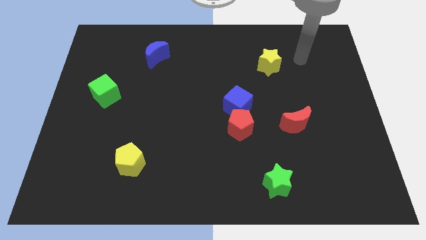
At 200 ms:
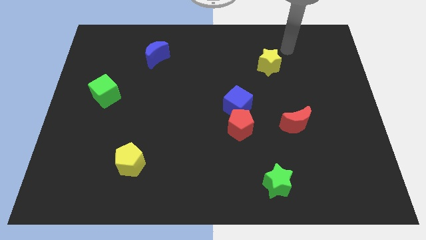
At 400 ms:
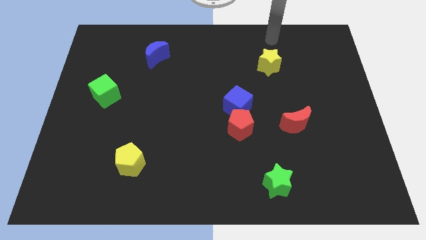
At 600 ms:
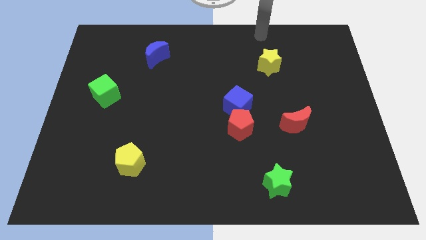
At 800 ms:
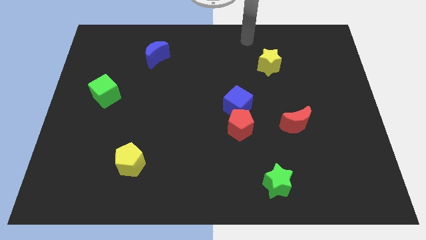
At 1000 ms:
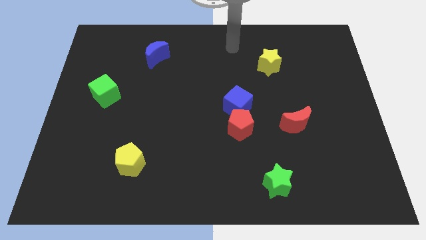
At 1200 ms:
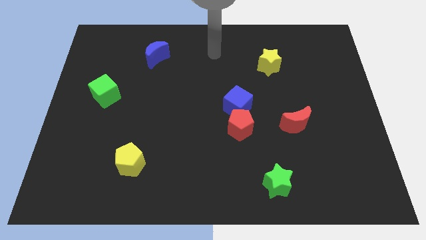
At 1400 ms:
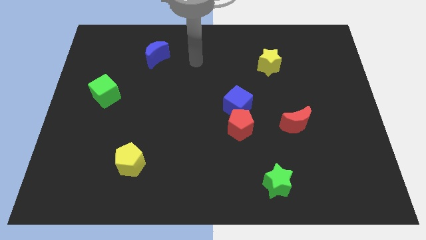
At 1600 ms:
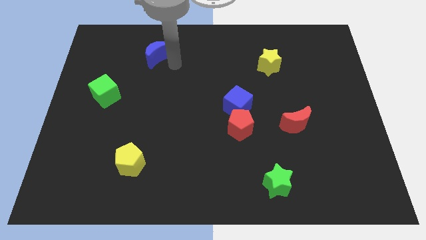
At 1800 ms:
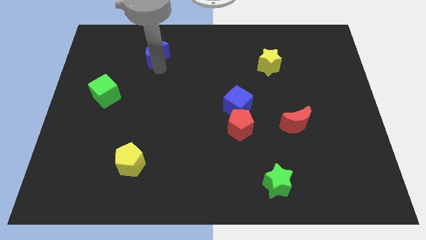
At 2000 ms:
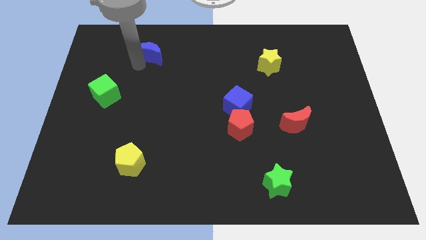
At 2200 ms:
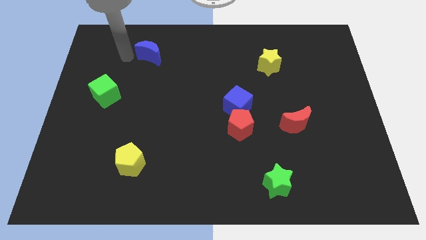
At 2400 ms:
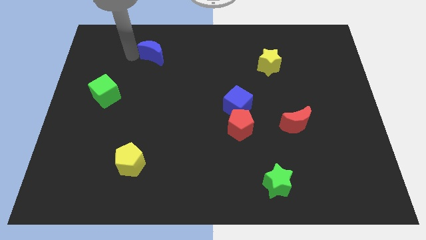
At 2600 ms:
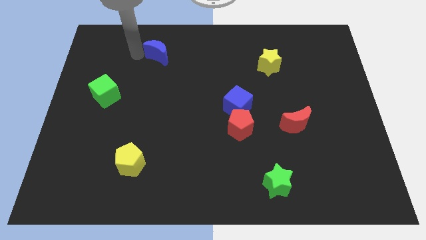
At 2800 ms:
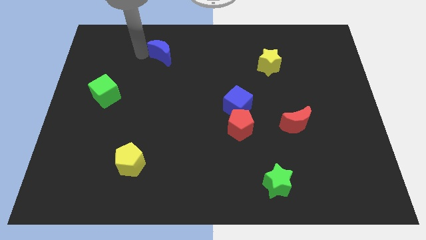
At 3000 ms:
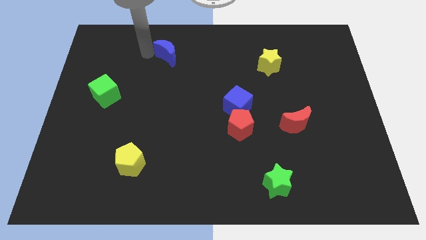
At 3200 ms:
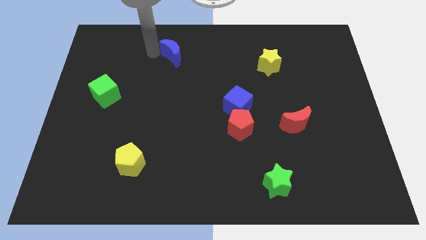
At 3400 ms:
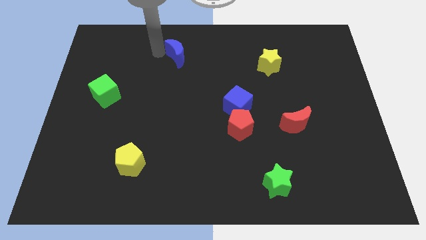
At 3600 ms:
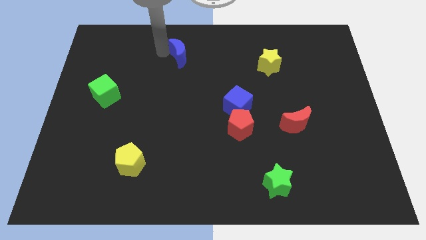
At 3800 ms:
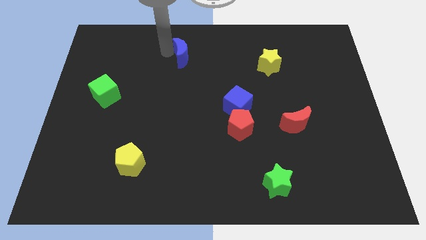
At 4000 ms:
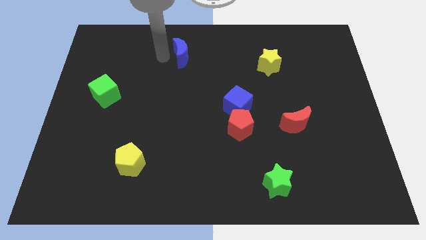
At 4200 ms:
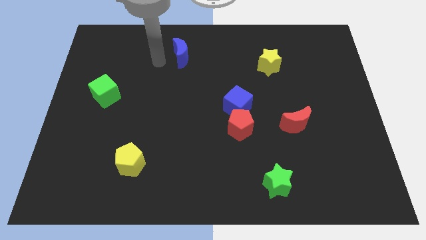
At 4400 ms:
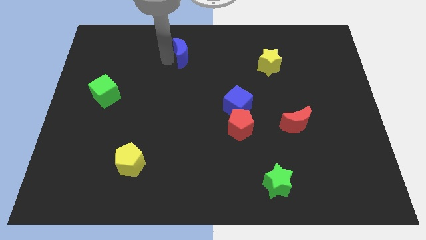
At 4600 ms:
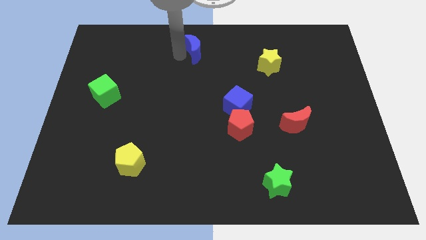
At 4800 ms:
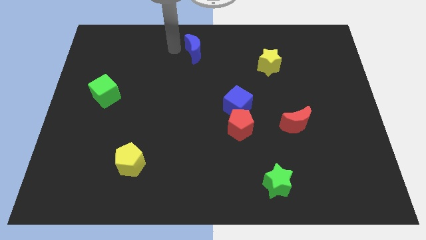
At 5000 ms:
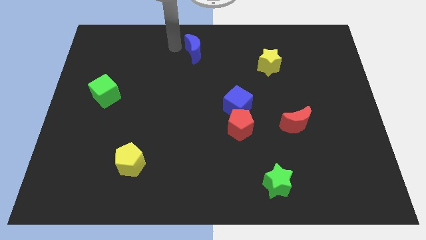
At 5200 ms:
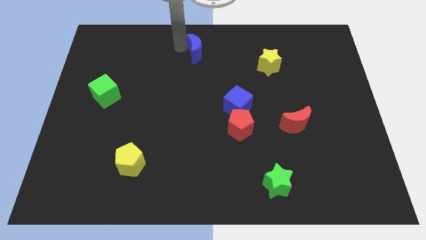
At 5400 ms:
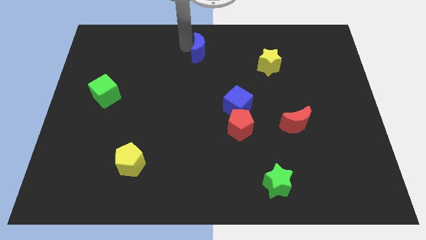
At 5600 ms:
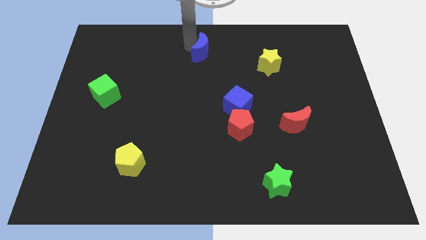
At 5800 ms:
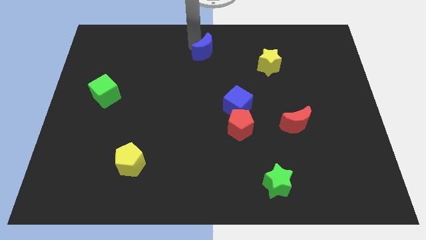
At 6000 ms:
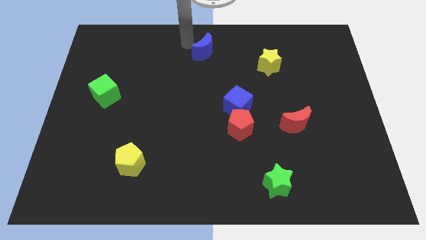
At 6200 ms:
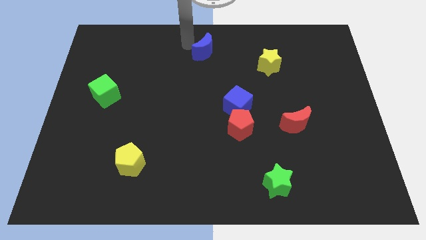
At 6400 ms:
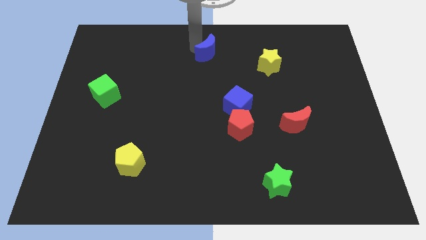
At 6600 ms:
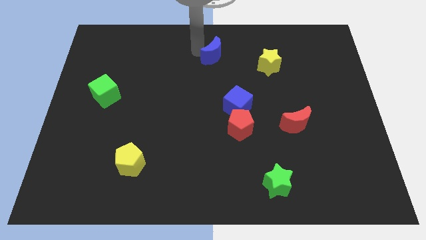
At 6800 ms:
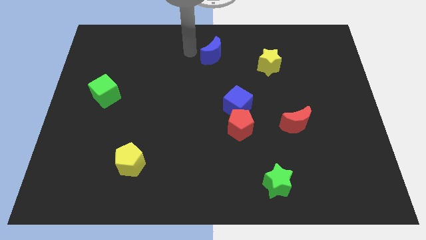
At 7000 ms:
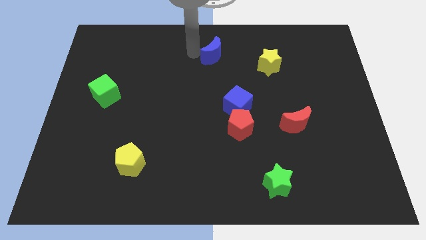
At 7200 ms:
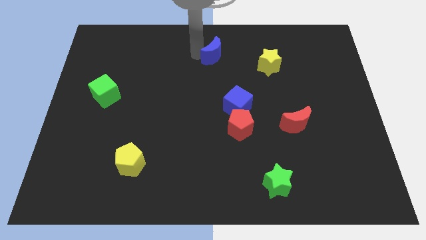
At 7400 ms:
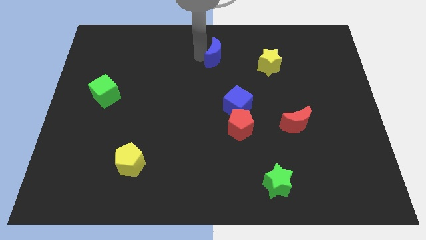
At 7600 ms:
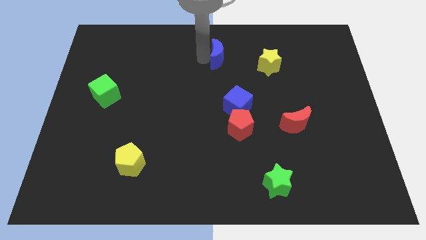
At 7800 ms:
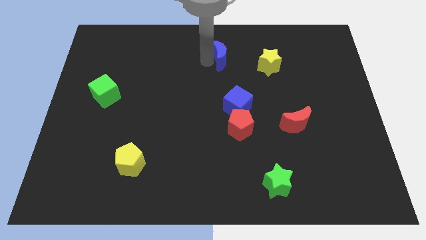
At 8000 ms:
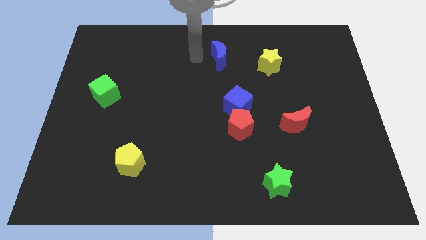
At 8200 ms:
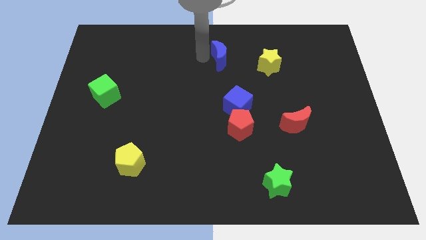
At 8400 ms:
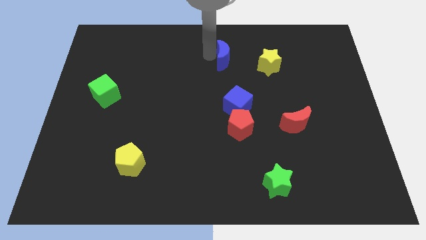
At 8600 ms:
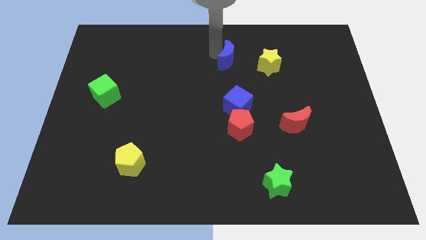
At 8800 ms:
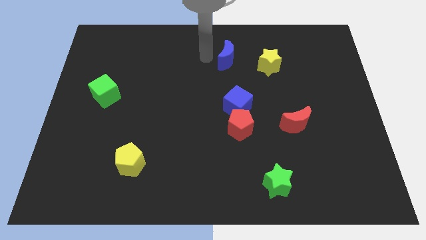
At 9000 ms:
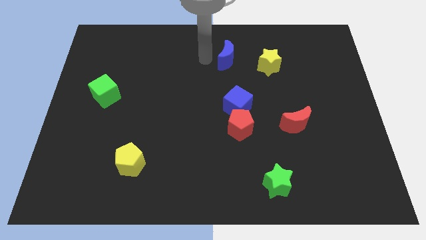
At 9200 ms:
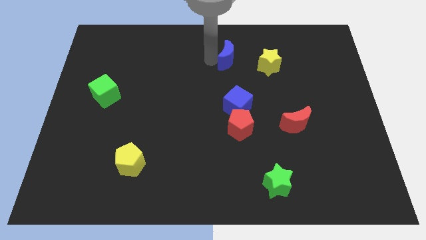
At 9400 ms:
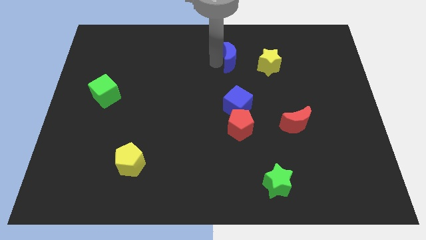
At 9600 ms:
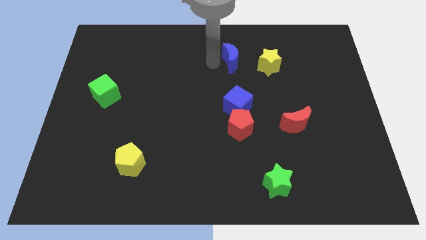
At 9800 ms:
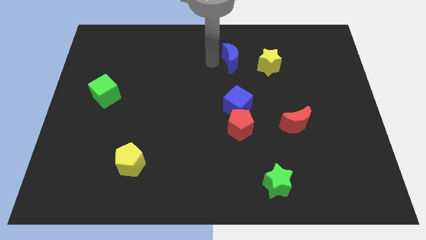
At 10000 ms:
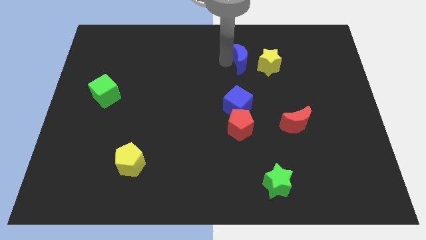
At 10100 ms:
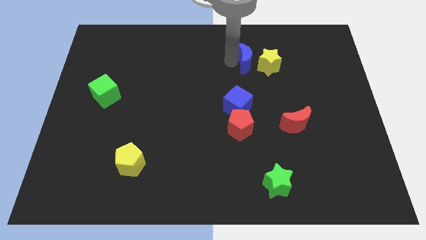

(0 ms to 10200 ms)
push the blue moon next to the yellow star

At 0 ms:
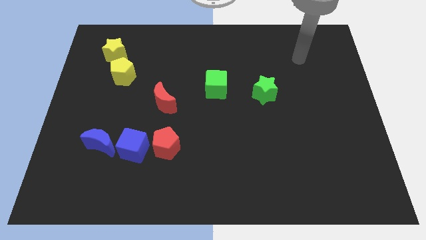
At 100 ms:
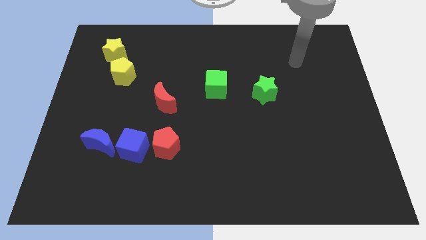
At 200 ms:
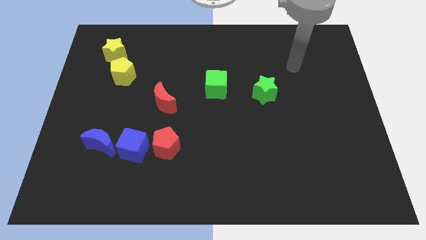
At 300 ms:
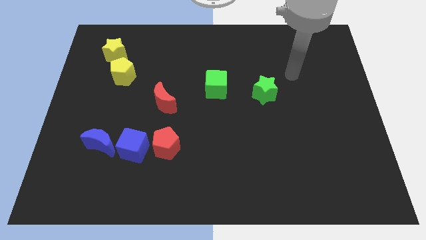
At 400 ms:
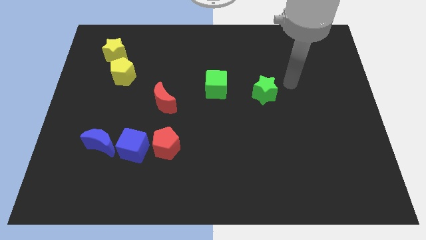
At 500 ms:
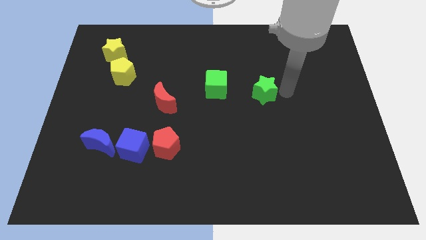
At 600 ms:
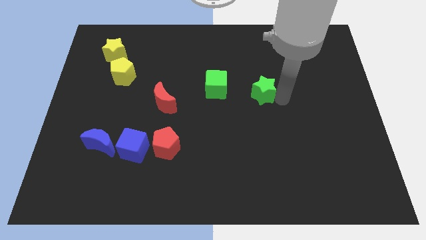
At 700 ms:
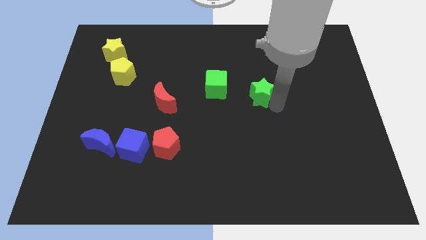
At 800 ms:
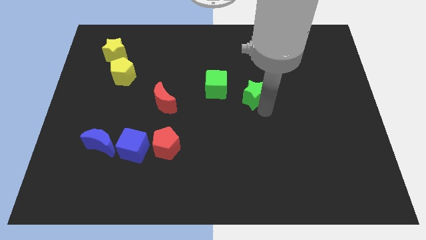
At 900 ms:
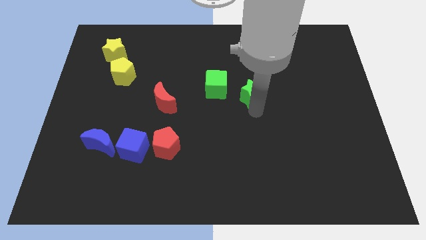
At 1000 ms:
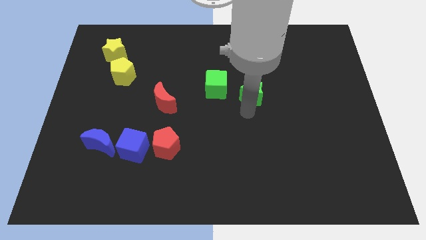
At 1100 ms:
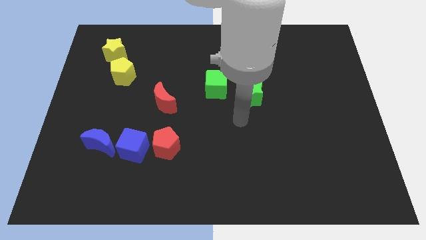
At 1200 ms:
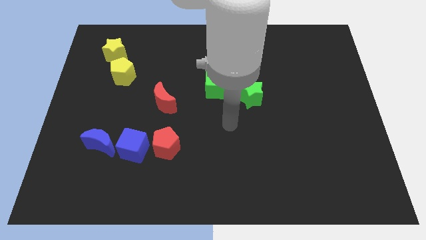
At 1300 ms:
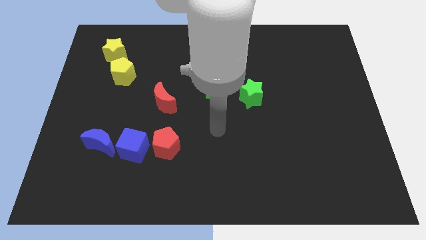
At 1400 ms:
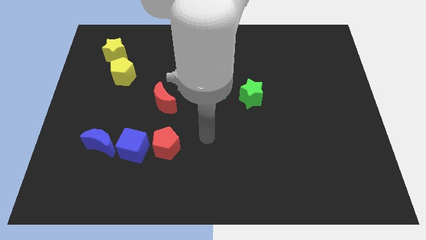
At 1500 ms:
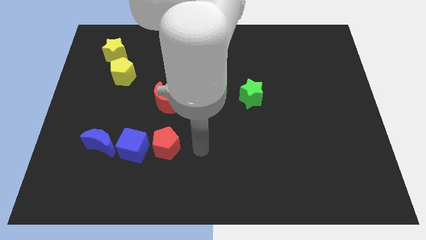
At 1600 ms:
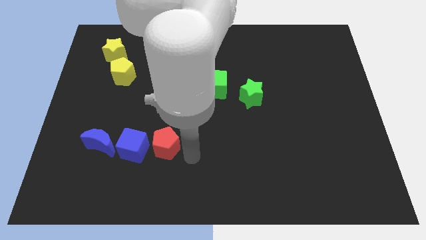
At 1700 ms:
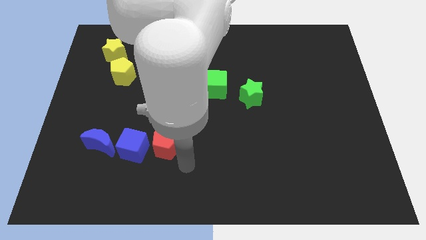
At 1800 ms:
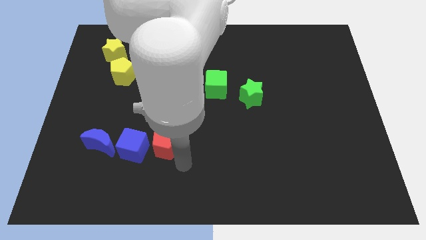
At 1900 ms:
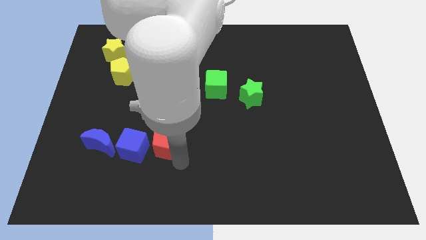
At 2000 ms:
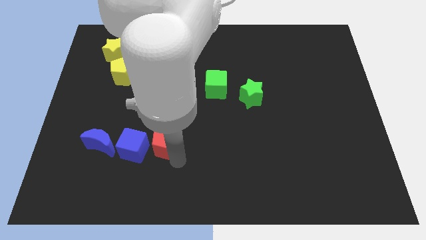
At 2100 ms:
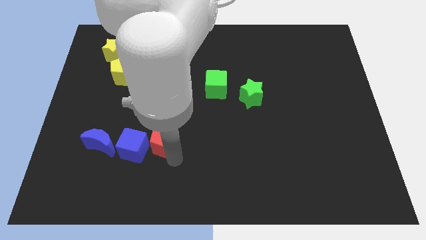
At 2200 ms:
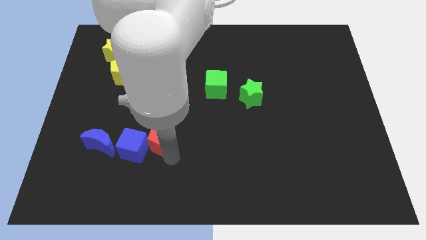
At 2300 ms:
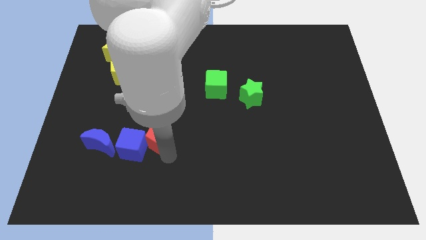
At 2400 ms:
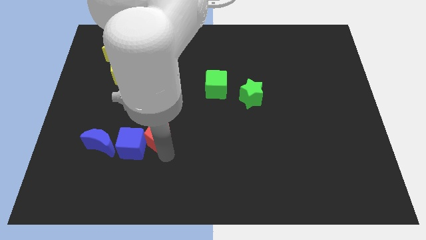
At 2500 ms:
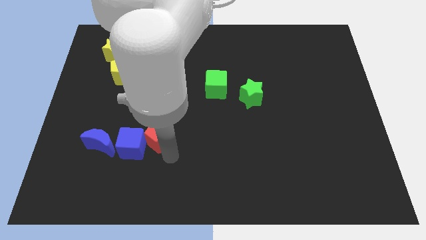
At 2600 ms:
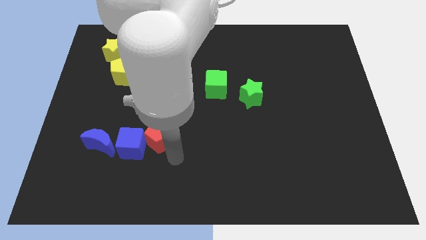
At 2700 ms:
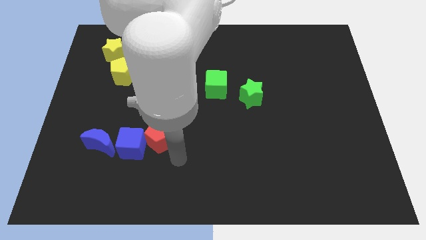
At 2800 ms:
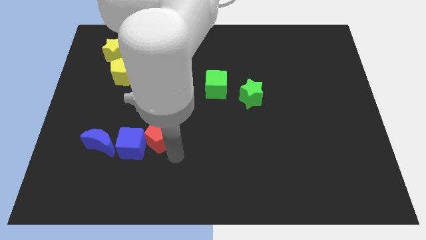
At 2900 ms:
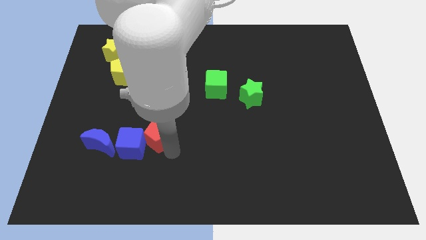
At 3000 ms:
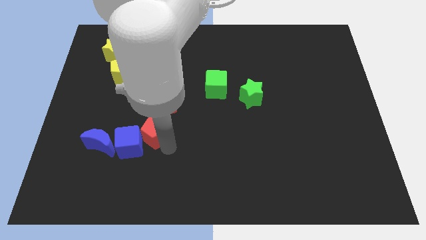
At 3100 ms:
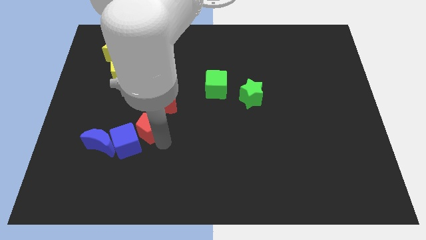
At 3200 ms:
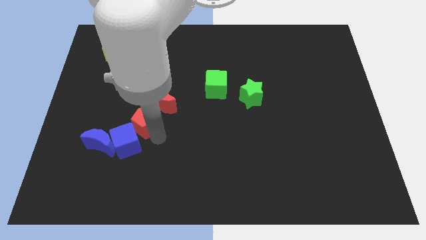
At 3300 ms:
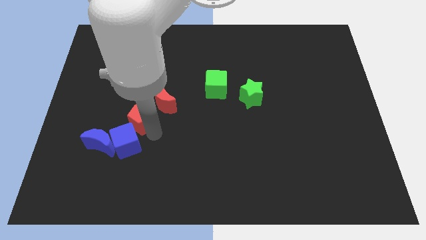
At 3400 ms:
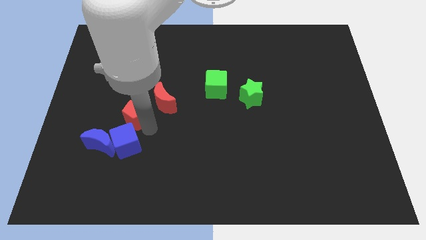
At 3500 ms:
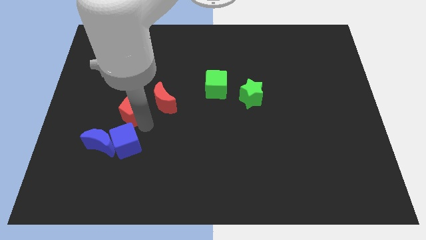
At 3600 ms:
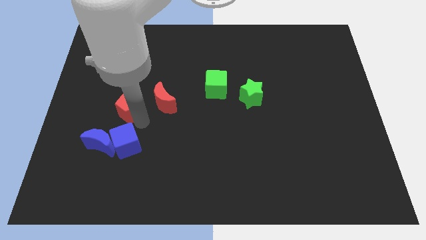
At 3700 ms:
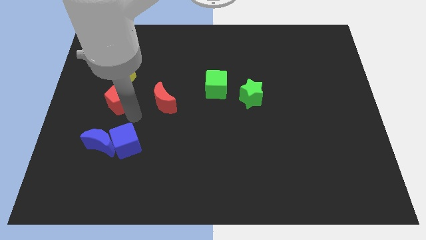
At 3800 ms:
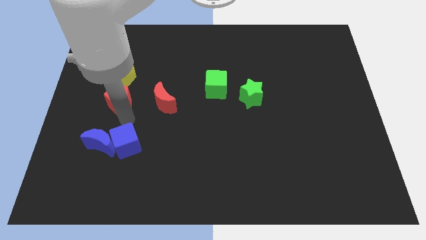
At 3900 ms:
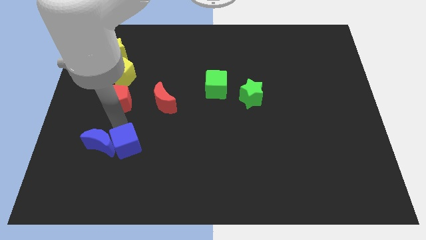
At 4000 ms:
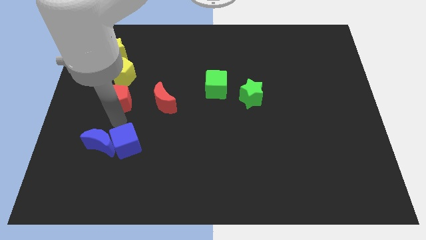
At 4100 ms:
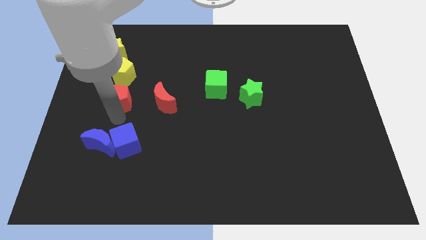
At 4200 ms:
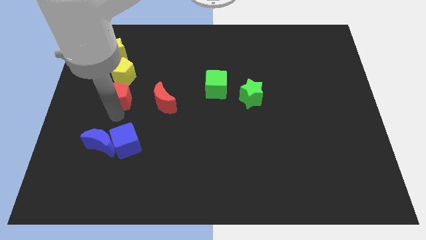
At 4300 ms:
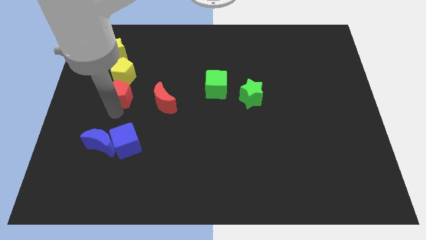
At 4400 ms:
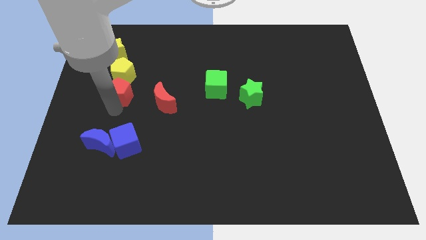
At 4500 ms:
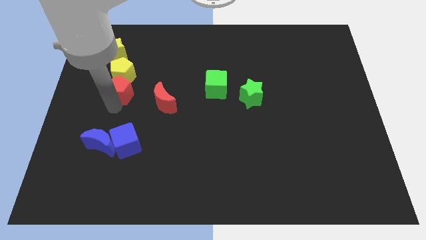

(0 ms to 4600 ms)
move the red pentagon to the yellow pentagon
